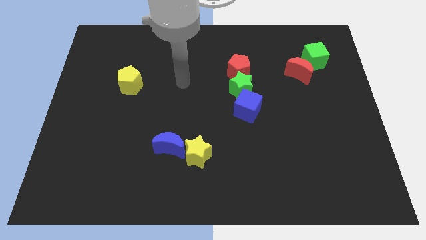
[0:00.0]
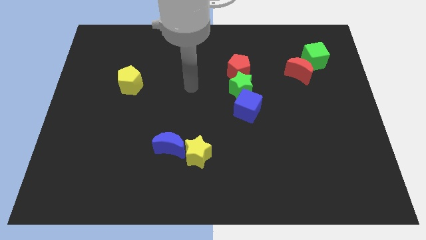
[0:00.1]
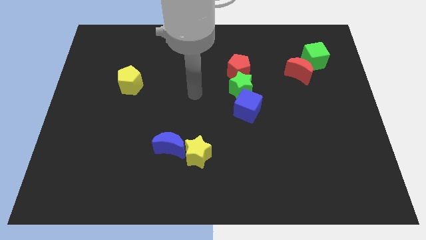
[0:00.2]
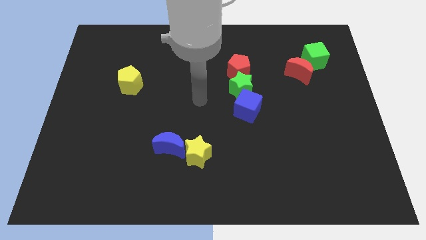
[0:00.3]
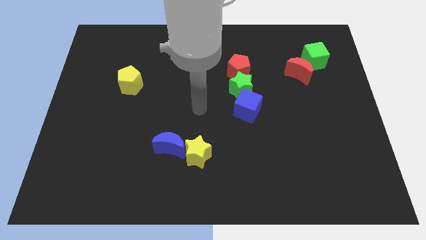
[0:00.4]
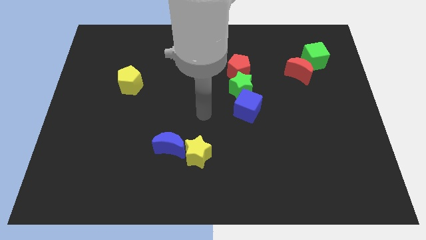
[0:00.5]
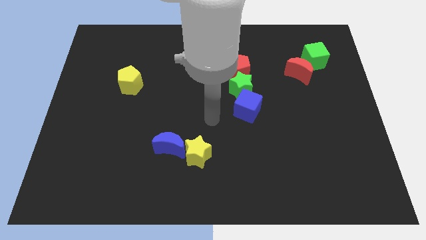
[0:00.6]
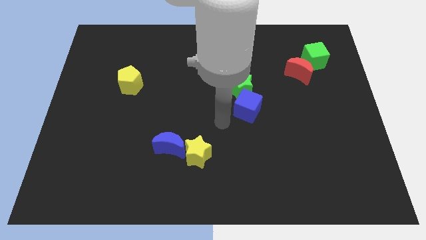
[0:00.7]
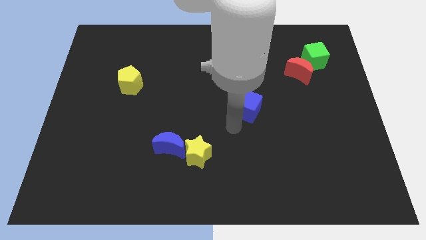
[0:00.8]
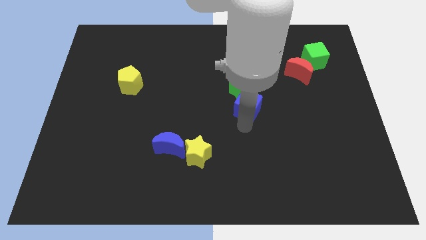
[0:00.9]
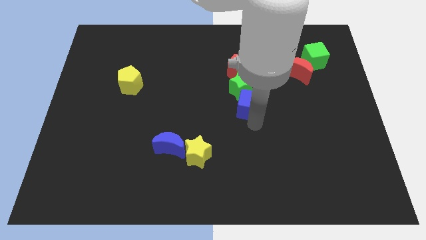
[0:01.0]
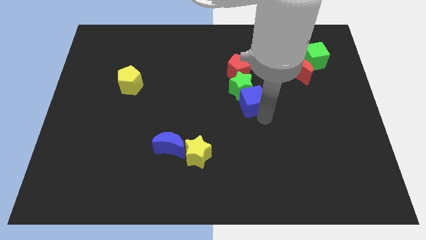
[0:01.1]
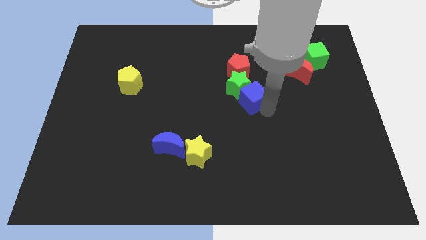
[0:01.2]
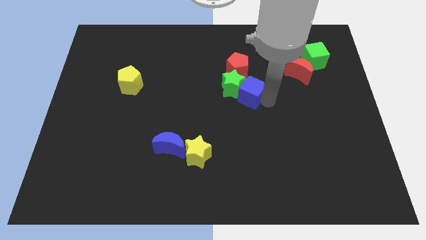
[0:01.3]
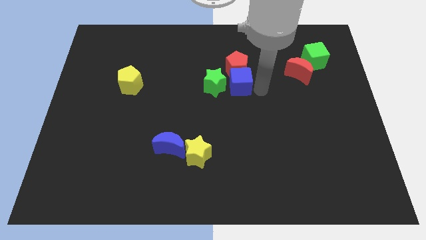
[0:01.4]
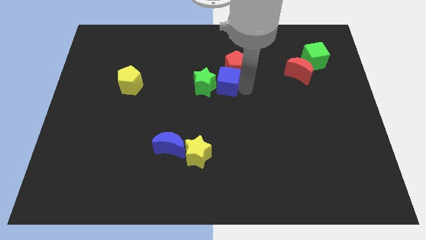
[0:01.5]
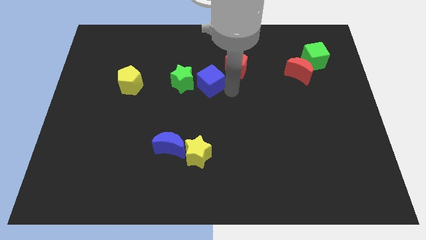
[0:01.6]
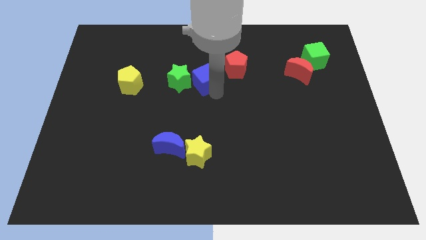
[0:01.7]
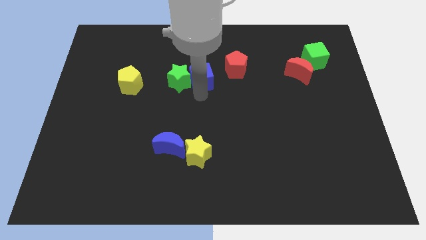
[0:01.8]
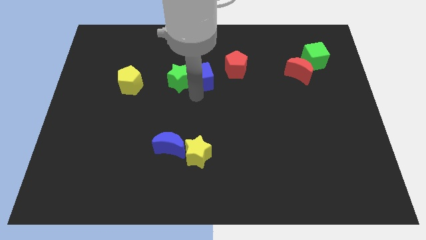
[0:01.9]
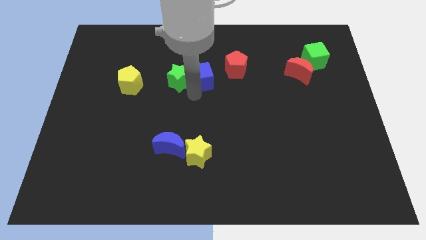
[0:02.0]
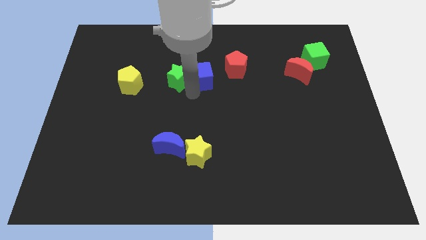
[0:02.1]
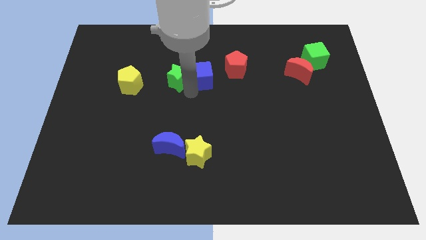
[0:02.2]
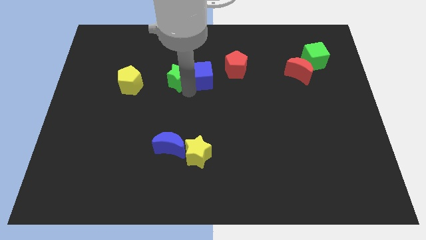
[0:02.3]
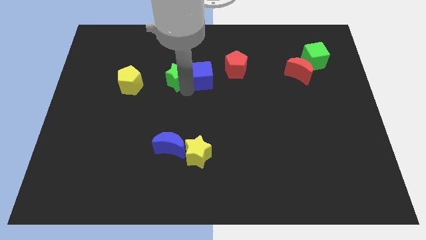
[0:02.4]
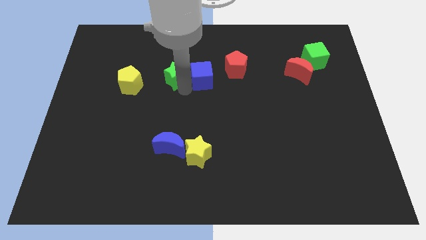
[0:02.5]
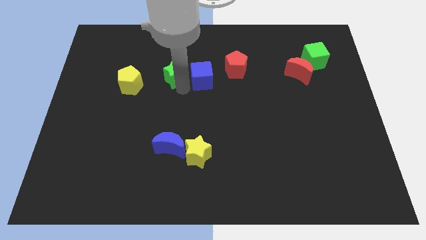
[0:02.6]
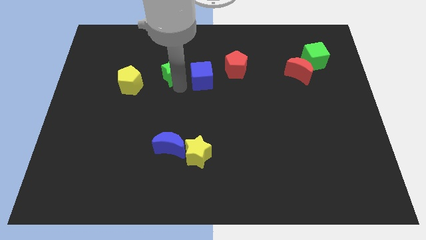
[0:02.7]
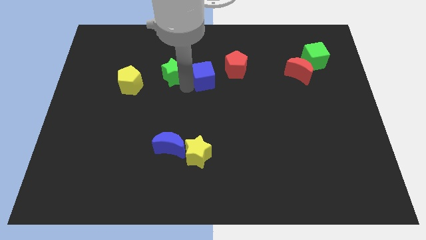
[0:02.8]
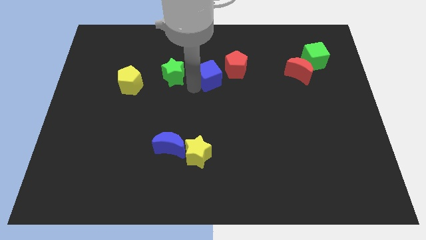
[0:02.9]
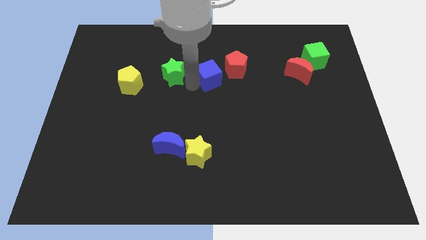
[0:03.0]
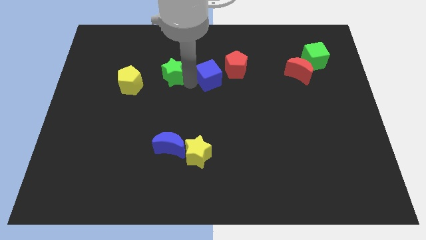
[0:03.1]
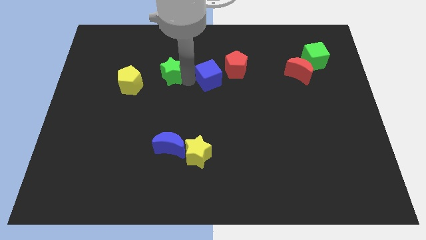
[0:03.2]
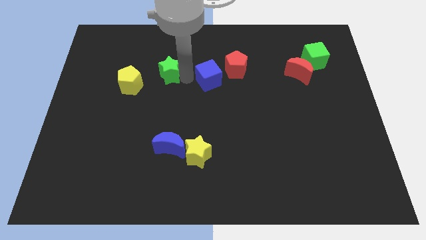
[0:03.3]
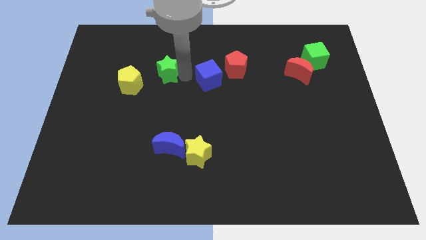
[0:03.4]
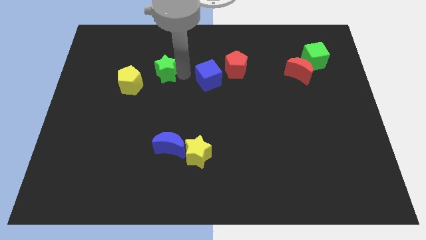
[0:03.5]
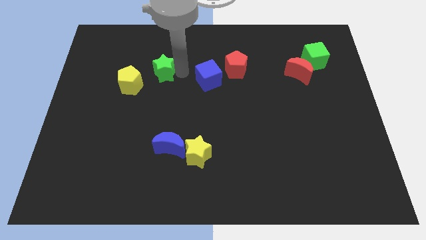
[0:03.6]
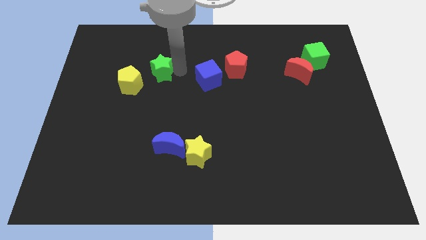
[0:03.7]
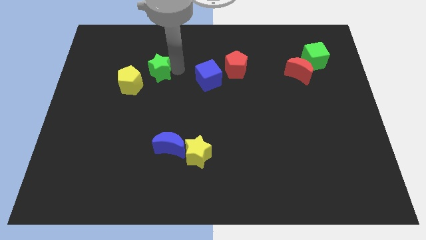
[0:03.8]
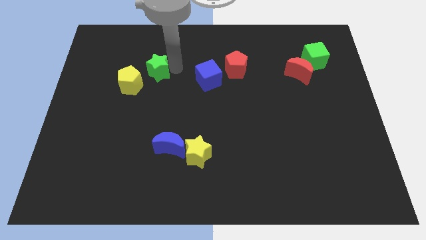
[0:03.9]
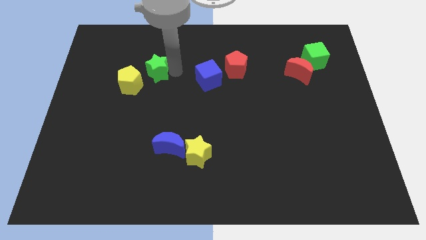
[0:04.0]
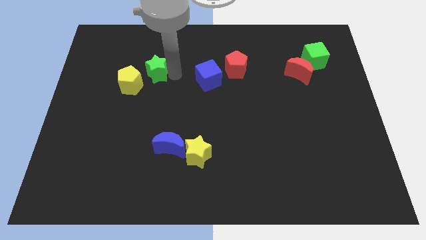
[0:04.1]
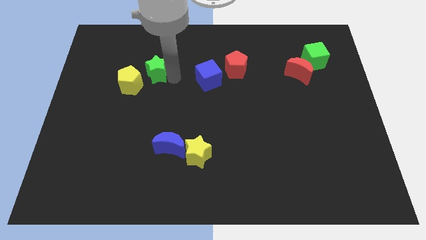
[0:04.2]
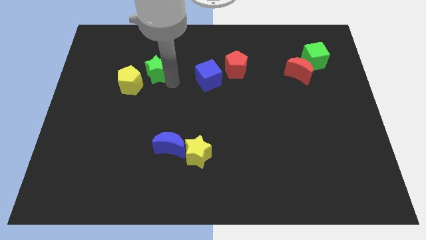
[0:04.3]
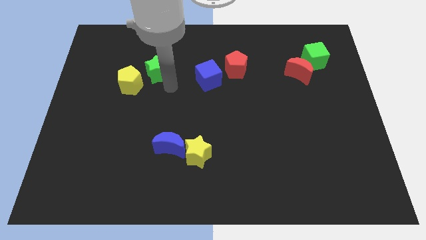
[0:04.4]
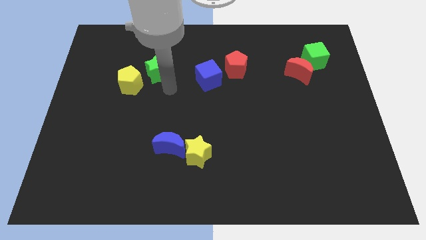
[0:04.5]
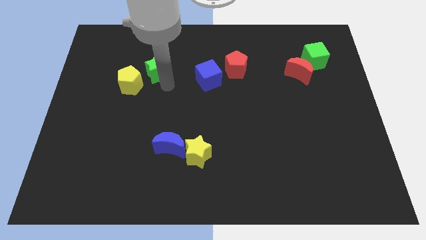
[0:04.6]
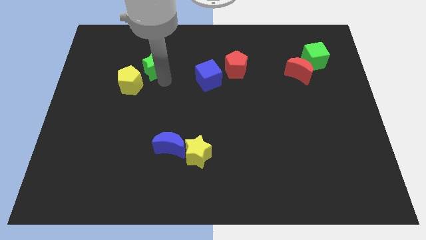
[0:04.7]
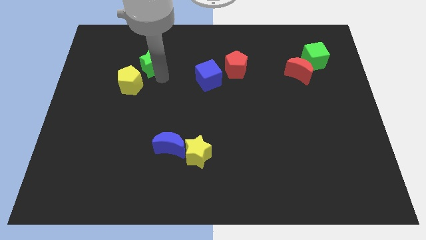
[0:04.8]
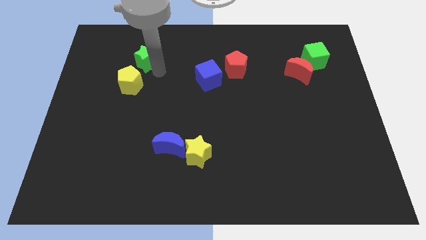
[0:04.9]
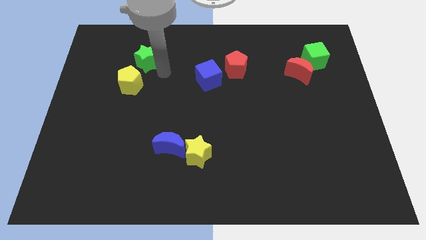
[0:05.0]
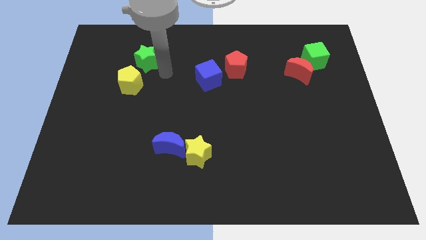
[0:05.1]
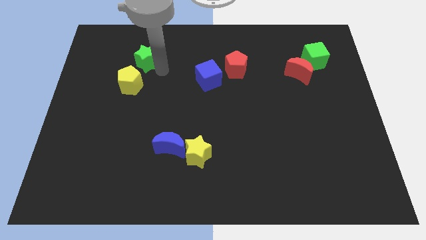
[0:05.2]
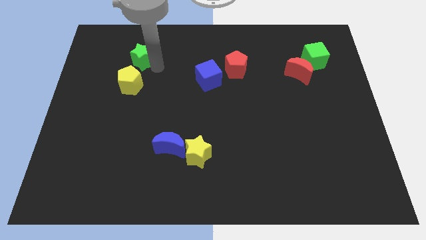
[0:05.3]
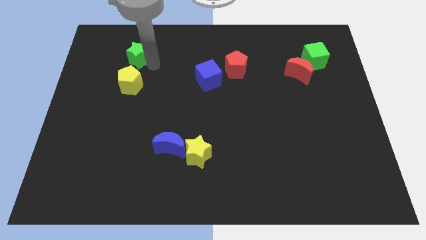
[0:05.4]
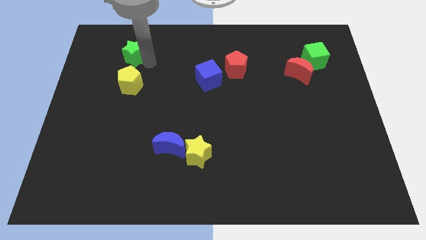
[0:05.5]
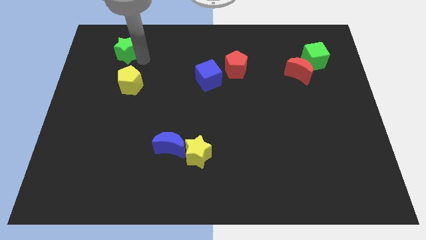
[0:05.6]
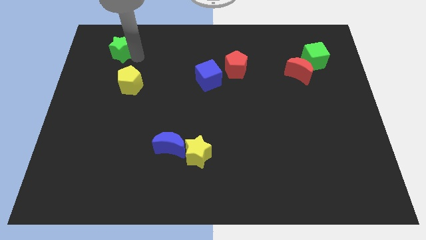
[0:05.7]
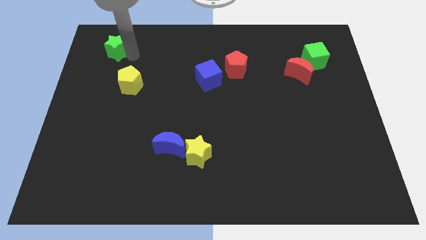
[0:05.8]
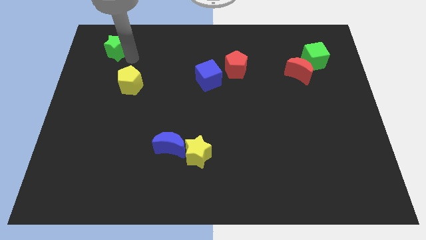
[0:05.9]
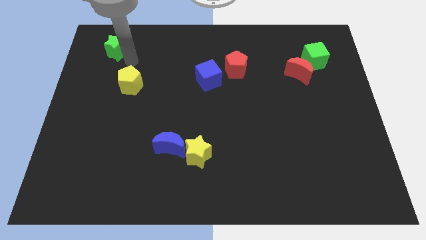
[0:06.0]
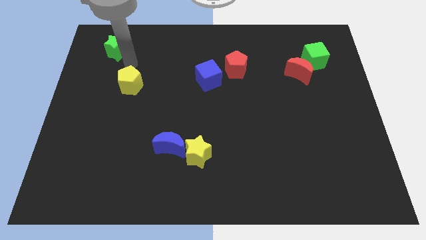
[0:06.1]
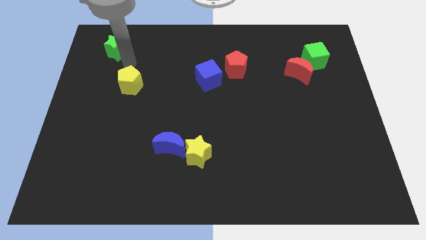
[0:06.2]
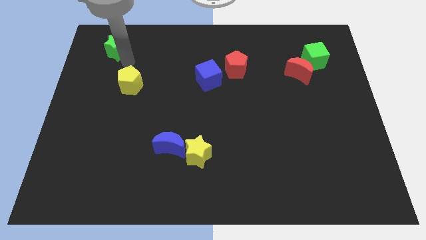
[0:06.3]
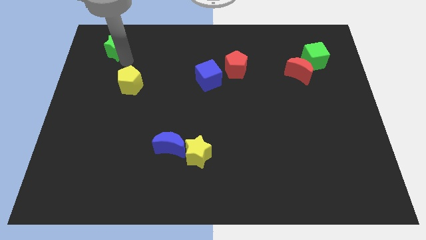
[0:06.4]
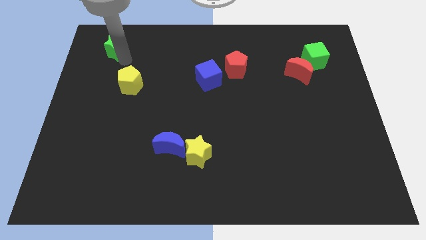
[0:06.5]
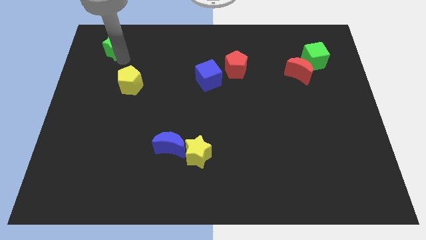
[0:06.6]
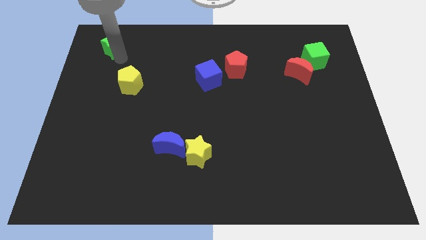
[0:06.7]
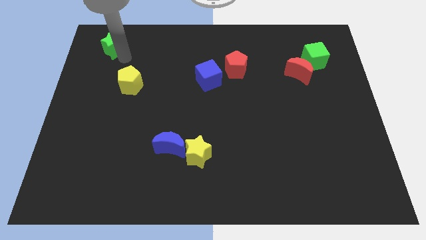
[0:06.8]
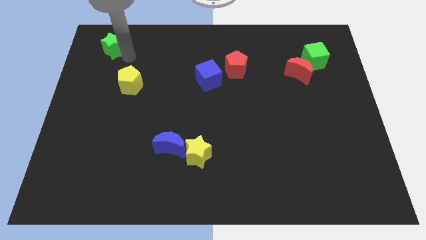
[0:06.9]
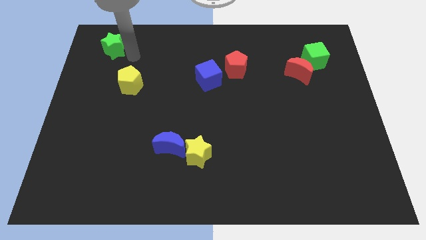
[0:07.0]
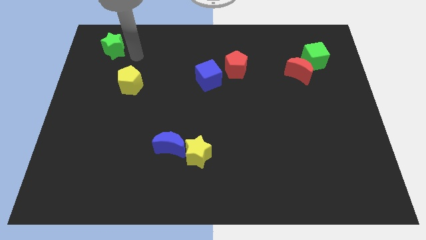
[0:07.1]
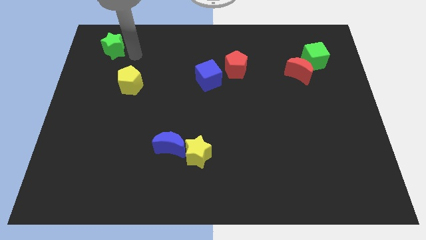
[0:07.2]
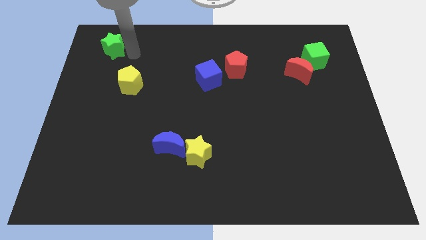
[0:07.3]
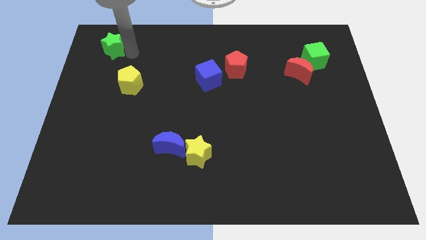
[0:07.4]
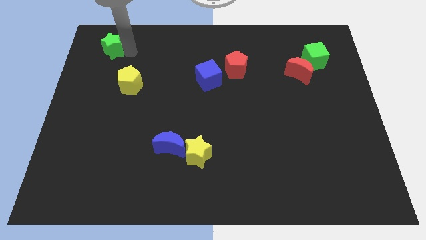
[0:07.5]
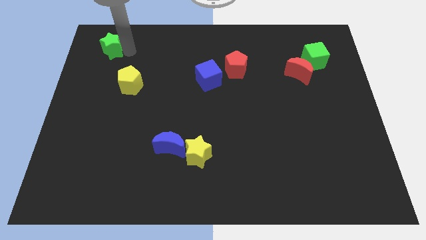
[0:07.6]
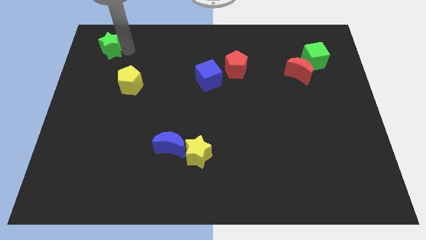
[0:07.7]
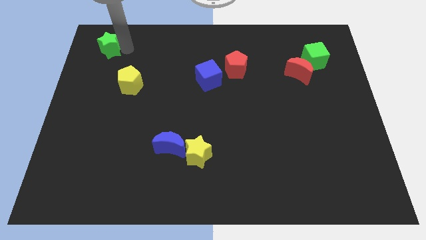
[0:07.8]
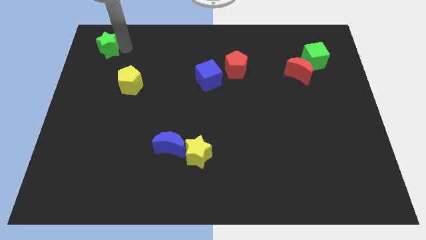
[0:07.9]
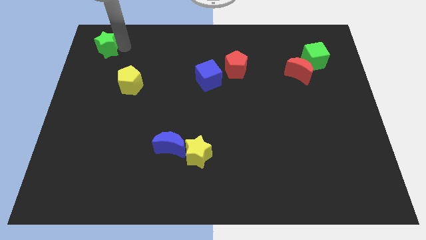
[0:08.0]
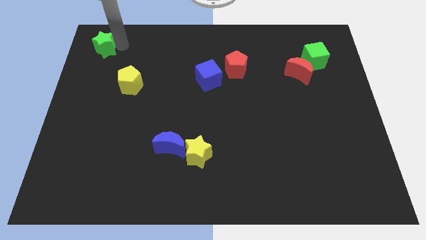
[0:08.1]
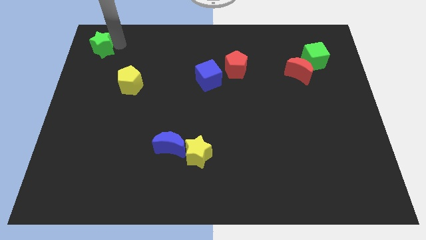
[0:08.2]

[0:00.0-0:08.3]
push the green star to the upper left corner
